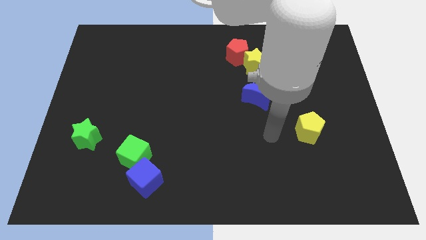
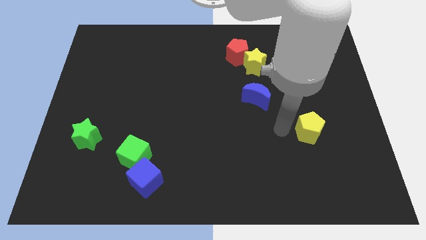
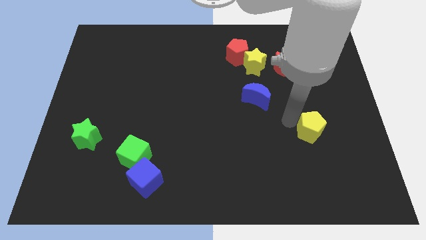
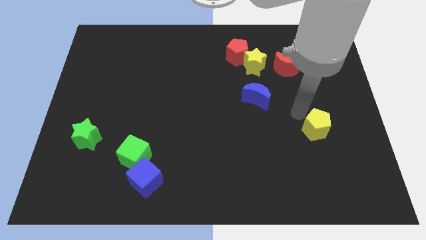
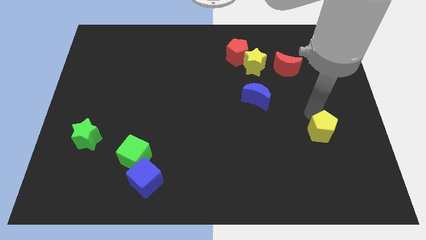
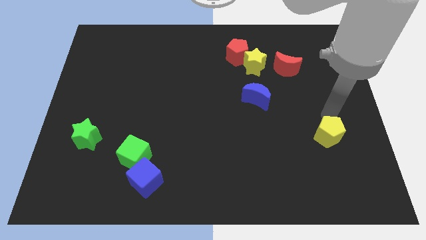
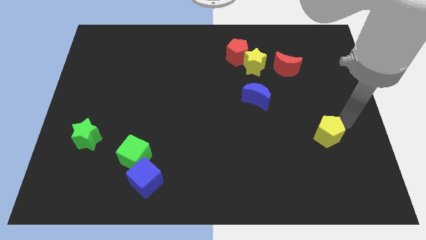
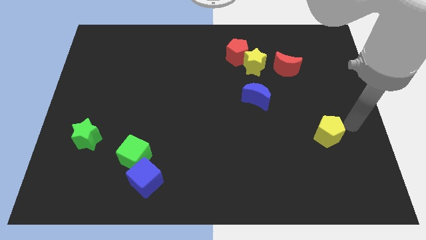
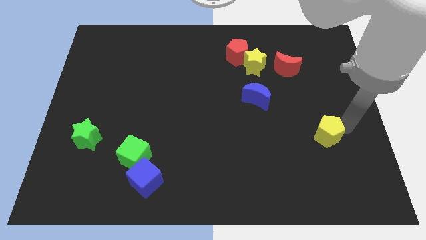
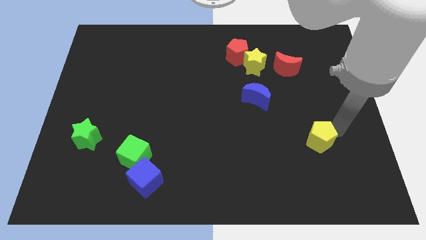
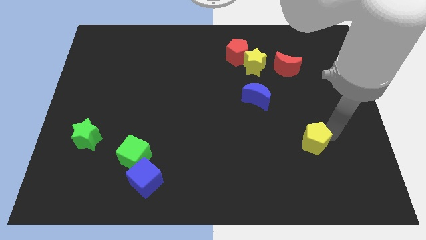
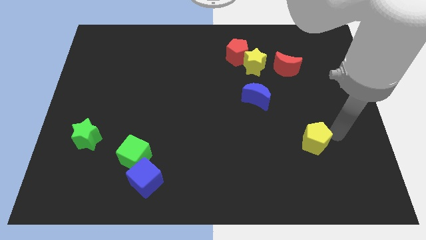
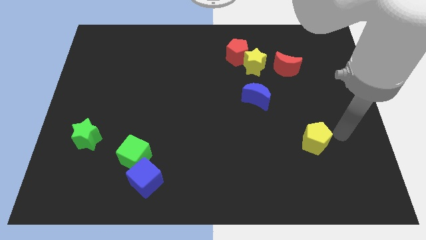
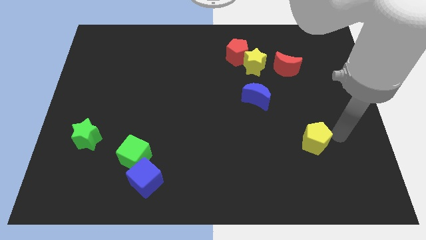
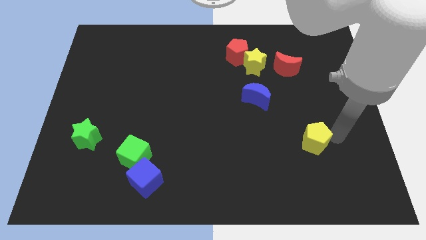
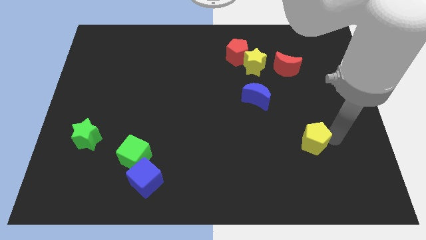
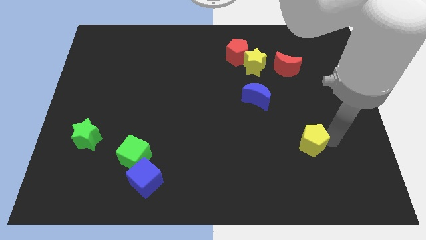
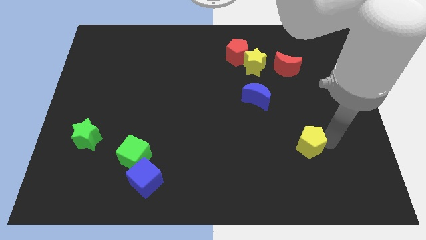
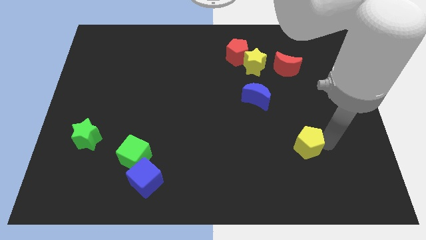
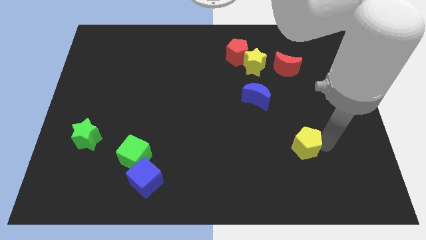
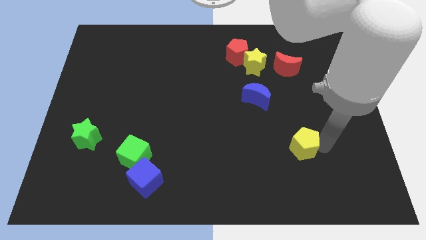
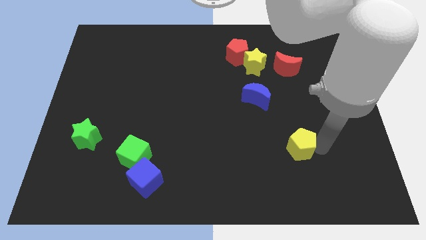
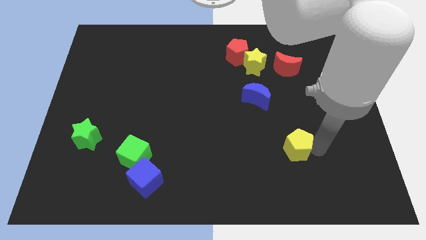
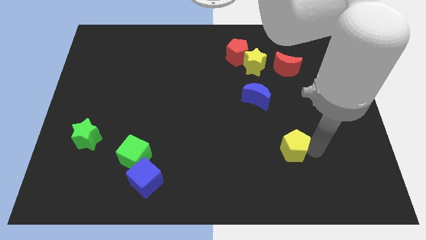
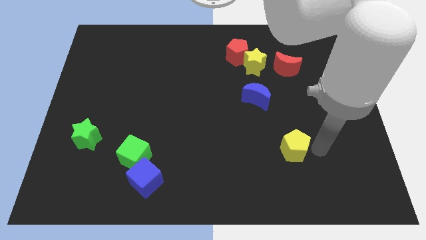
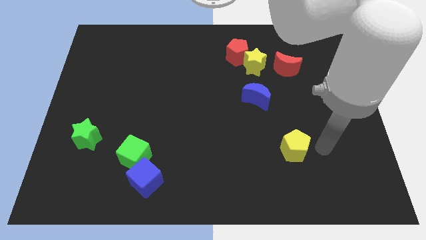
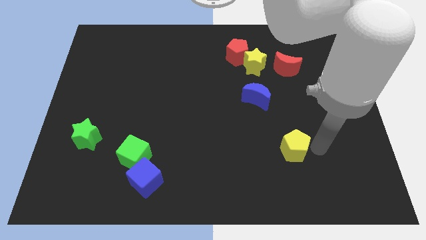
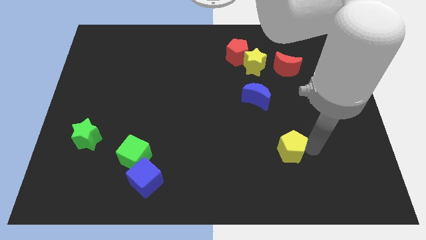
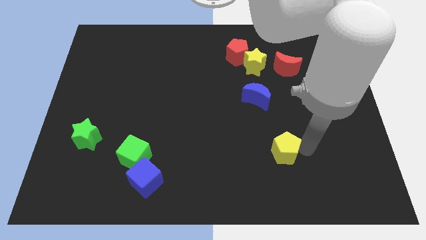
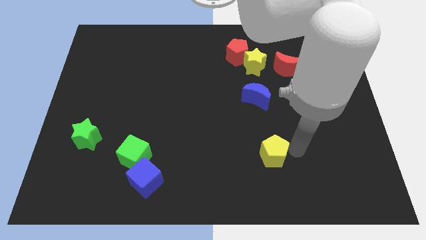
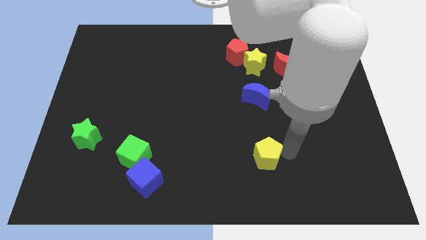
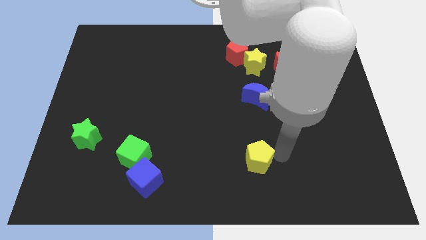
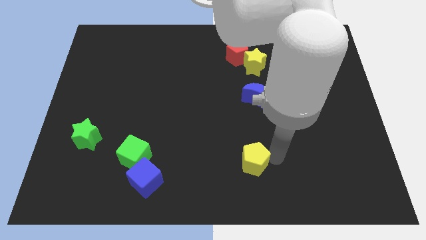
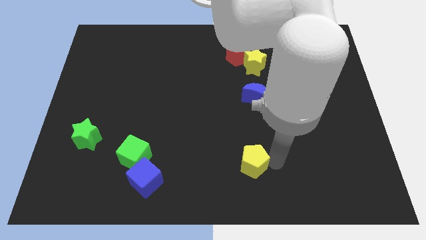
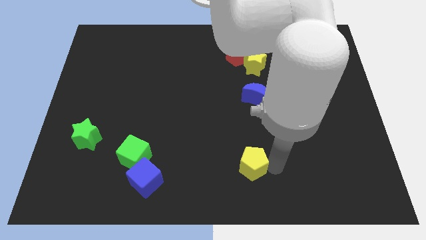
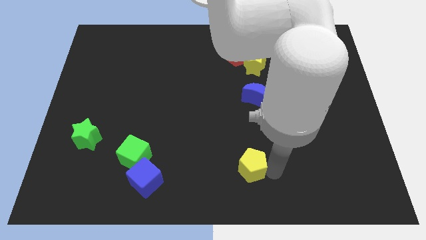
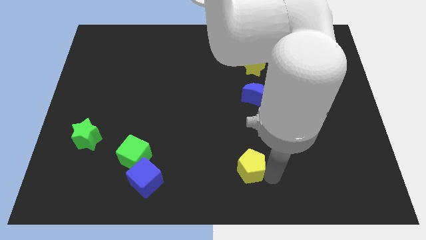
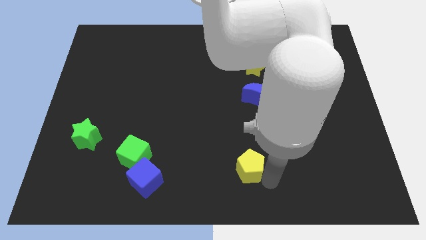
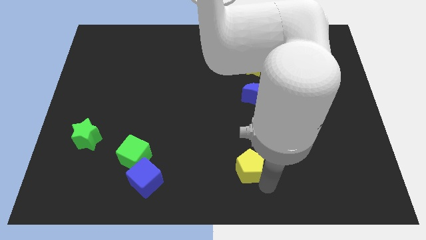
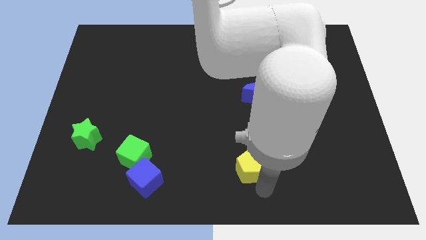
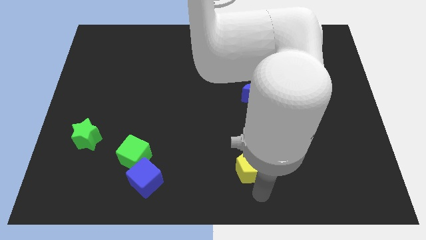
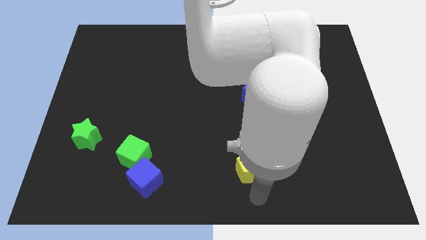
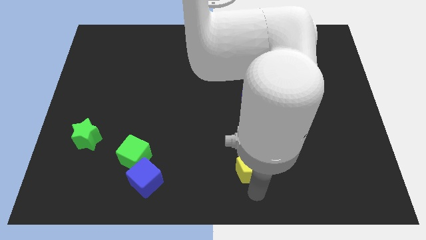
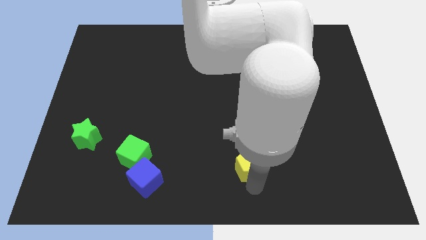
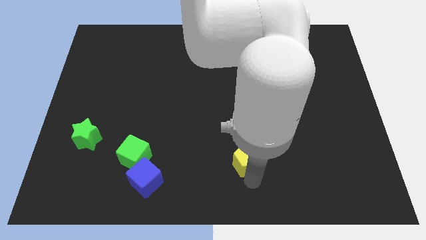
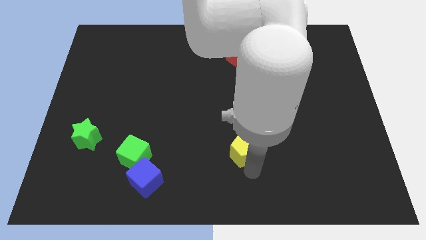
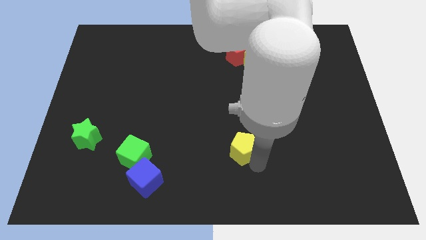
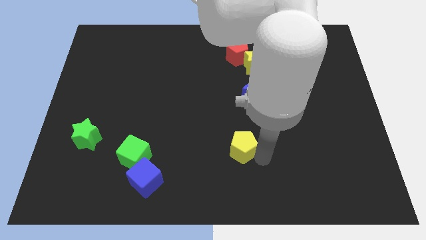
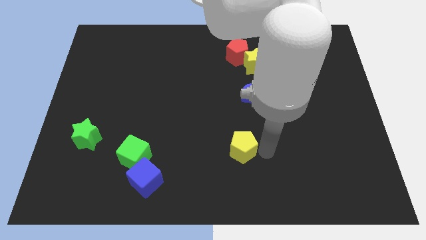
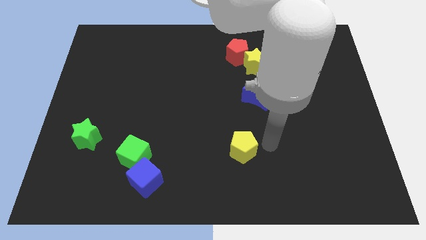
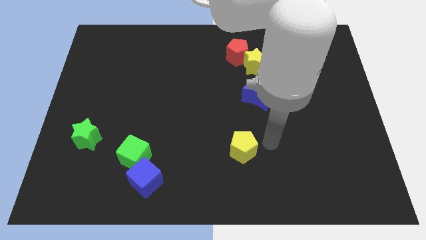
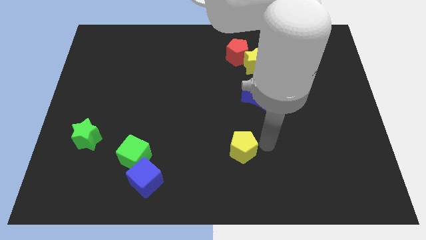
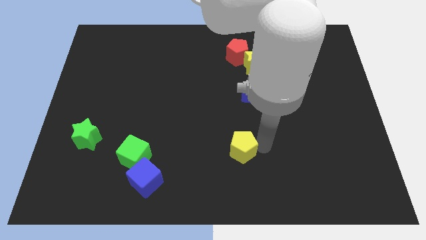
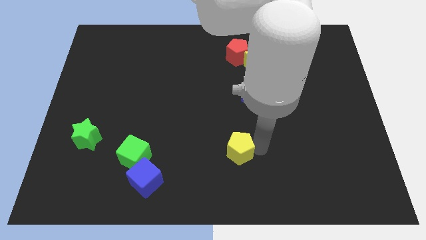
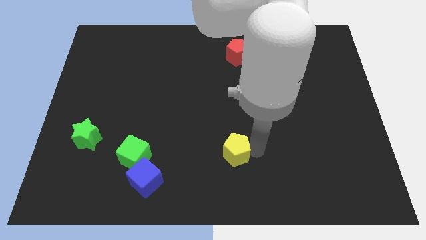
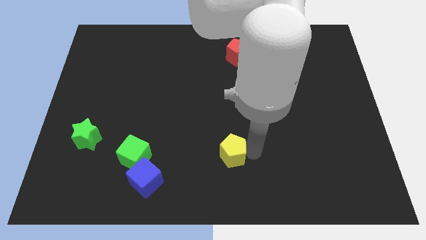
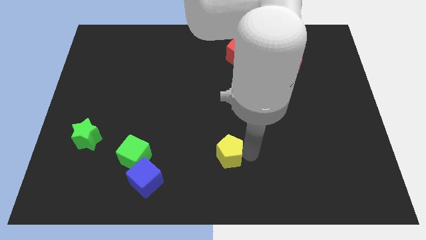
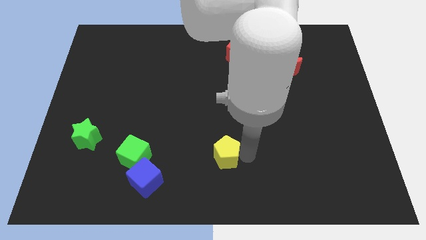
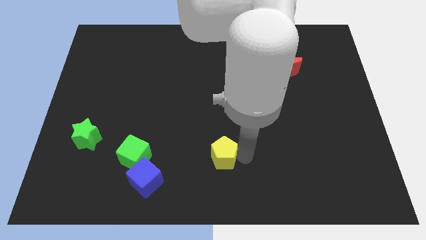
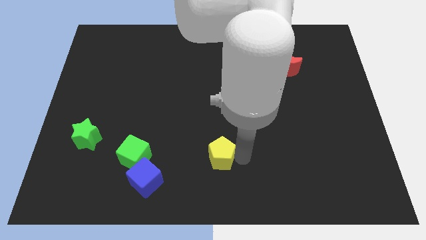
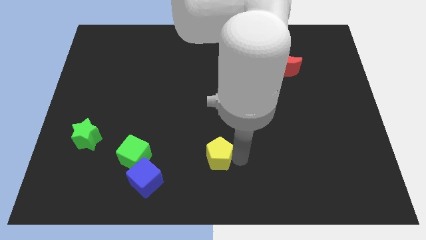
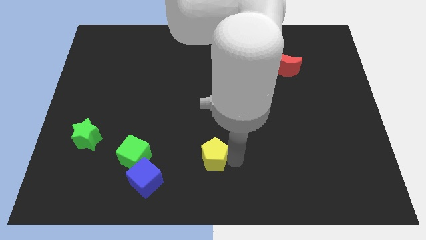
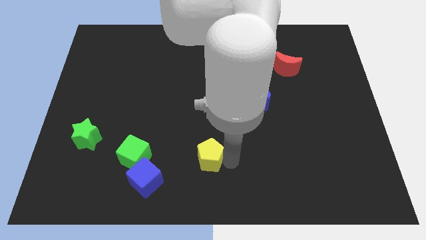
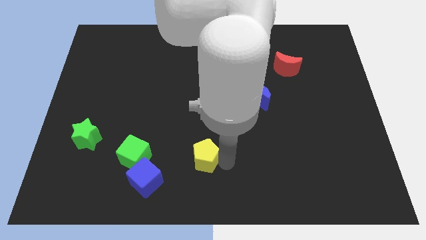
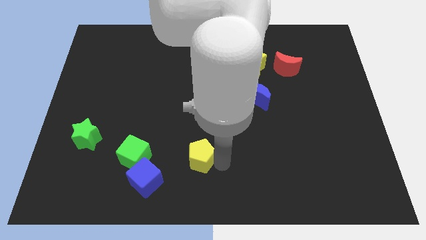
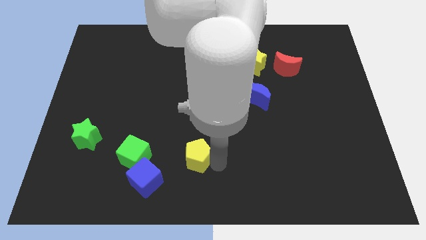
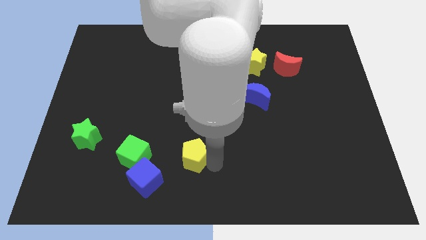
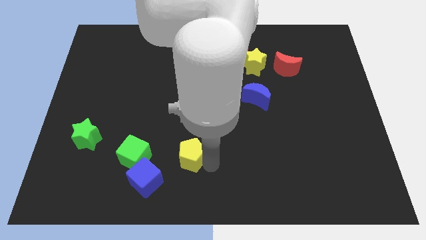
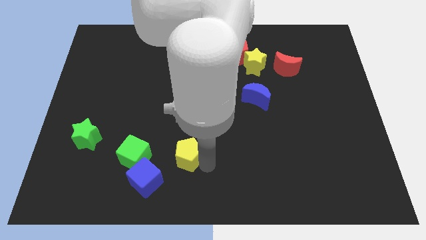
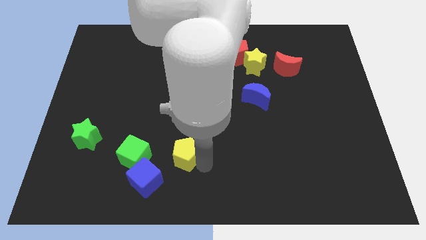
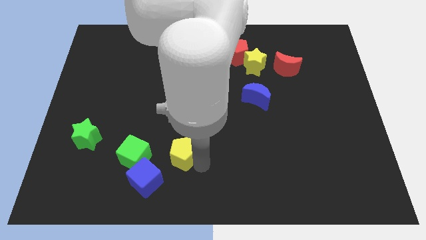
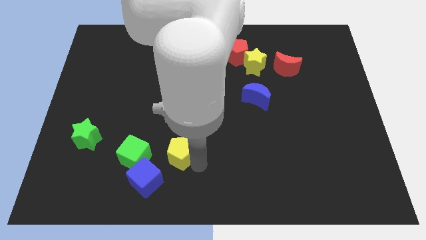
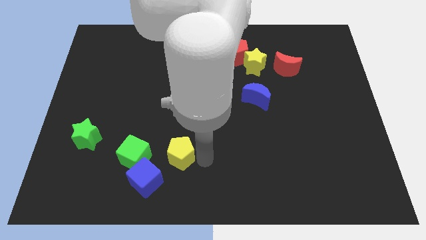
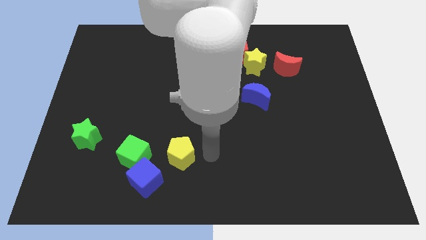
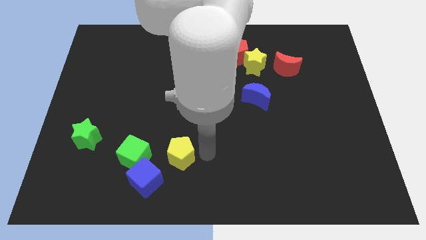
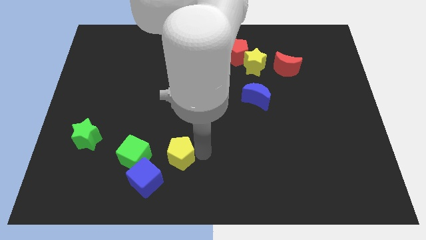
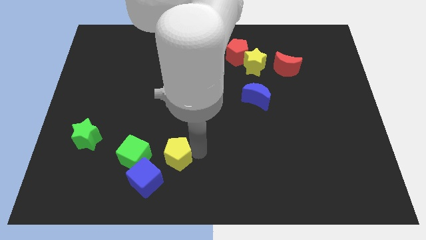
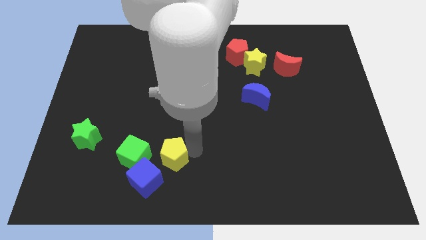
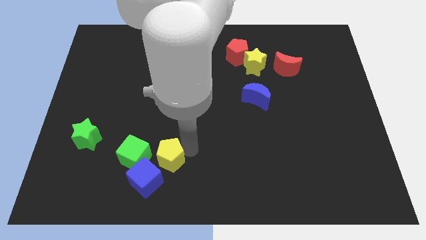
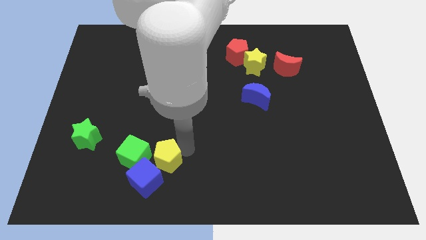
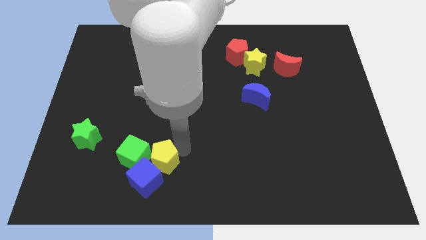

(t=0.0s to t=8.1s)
push the yellow pentagon next to the green cube
